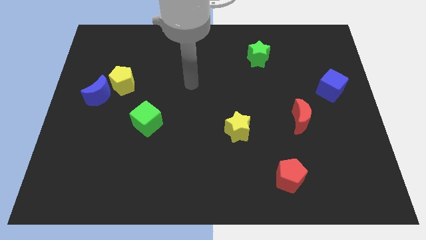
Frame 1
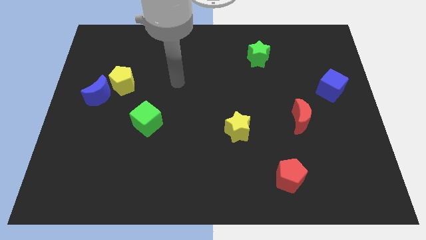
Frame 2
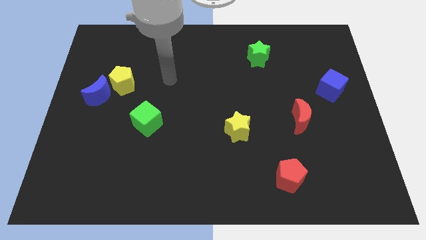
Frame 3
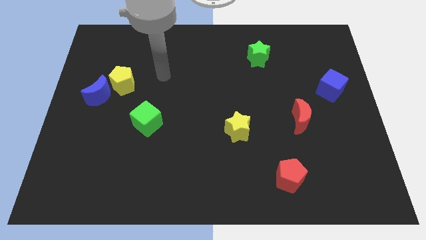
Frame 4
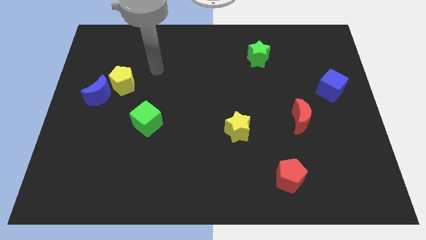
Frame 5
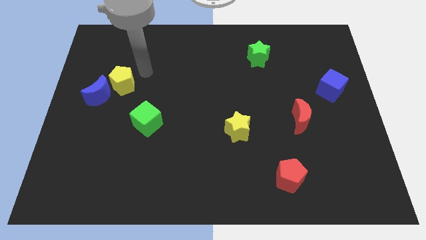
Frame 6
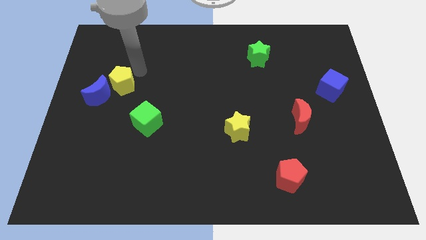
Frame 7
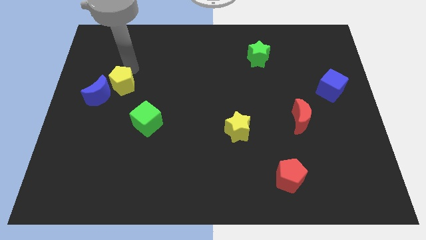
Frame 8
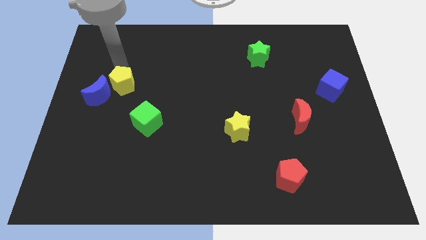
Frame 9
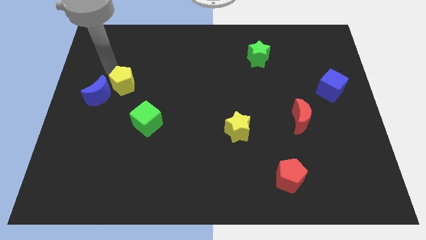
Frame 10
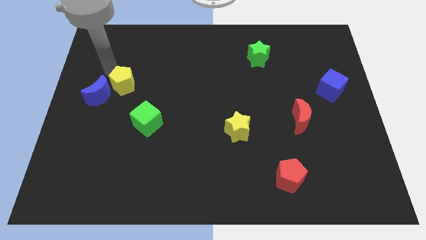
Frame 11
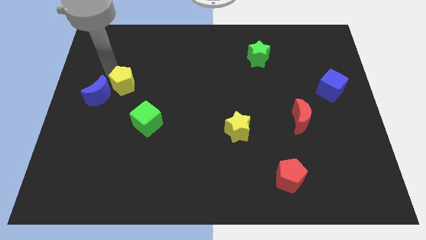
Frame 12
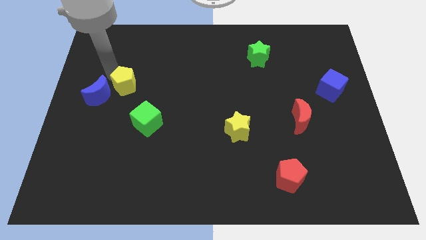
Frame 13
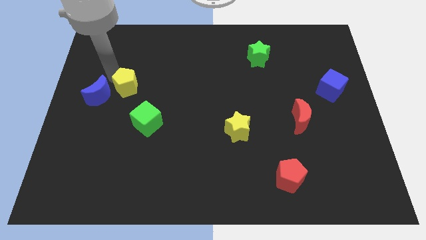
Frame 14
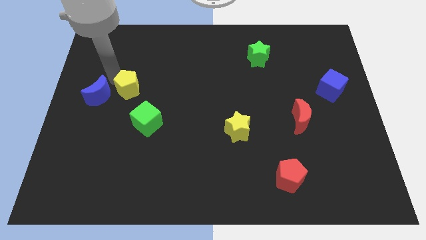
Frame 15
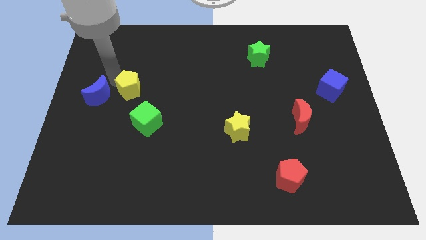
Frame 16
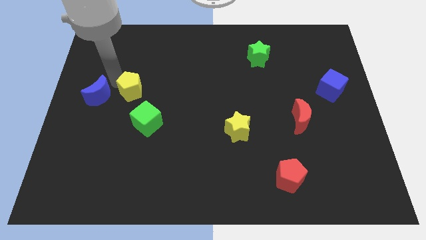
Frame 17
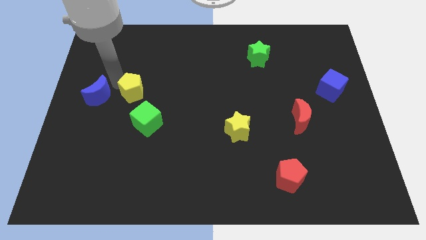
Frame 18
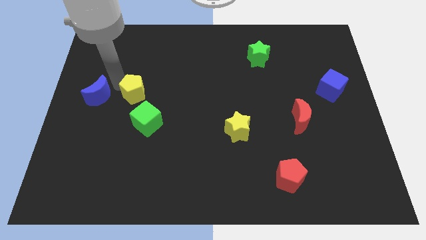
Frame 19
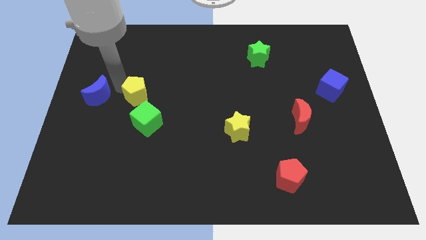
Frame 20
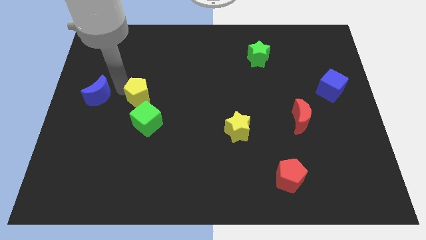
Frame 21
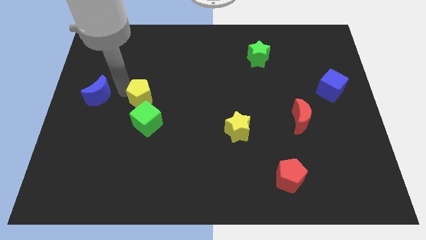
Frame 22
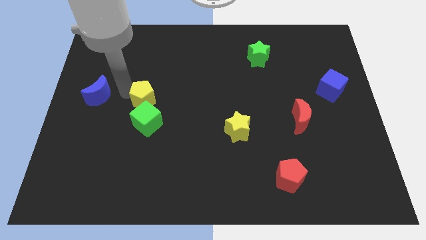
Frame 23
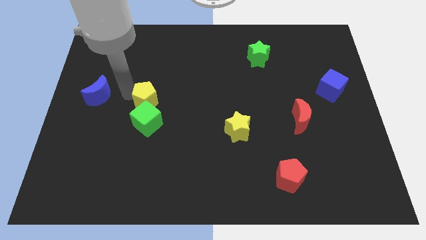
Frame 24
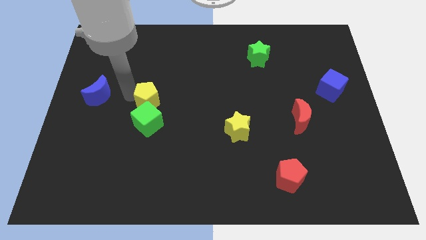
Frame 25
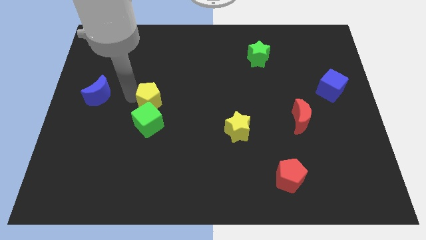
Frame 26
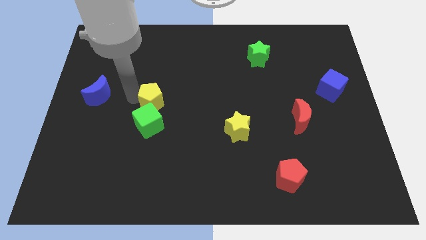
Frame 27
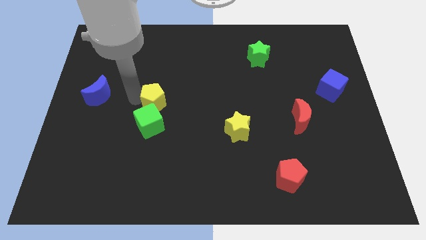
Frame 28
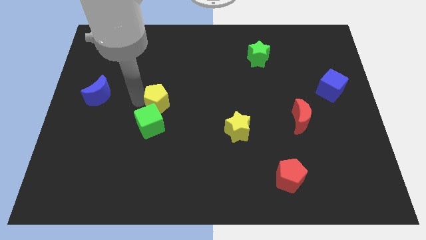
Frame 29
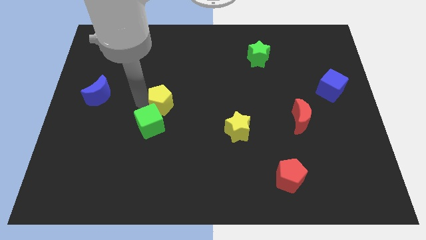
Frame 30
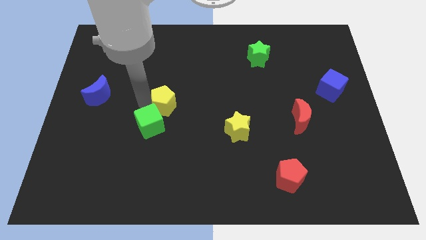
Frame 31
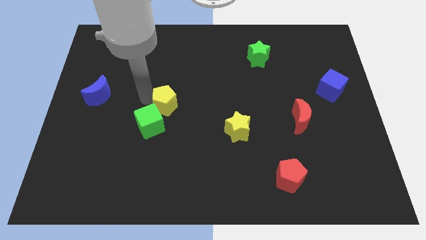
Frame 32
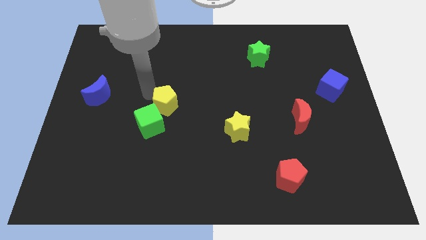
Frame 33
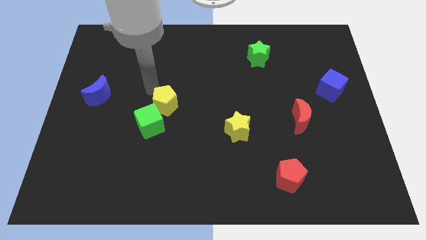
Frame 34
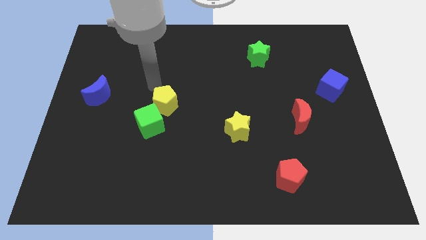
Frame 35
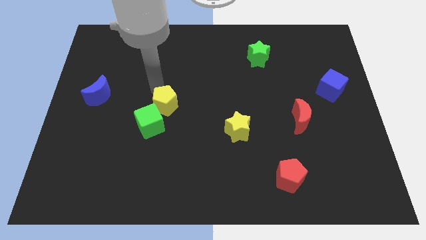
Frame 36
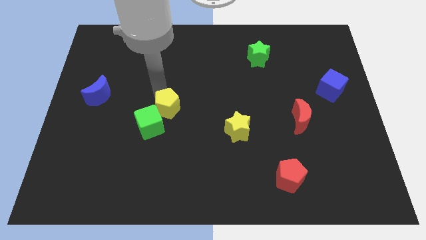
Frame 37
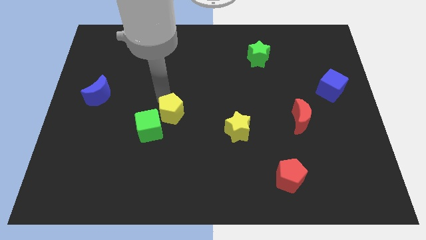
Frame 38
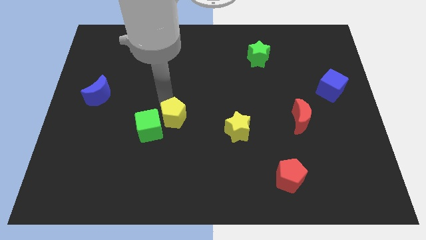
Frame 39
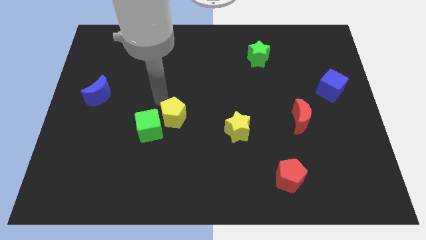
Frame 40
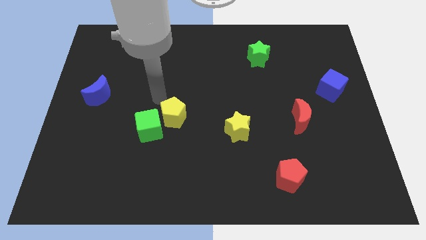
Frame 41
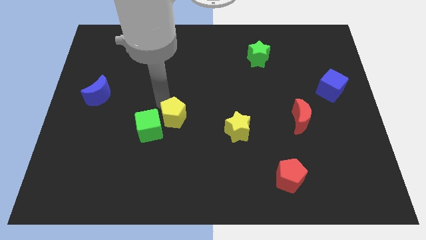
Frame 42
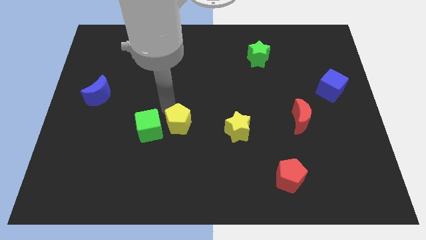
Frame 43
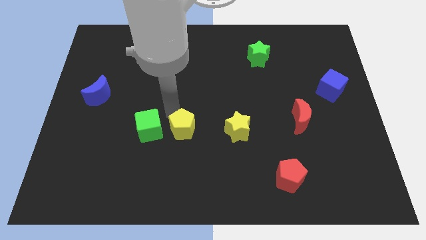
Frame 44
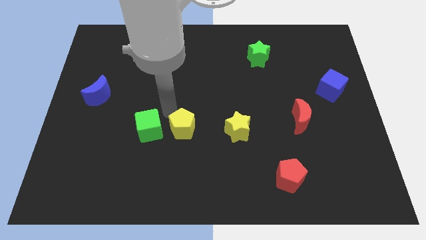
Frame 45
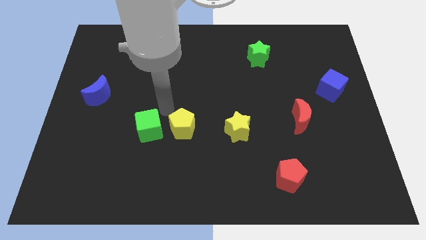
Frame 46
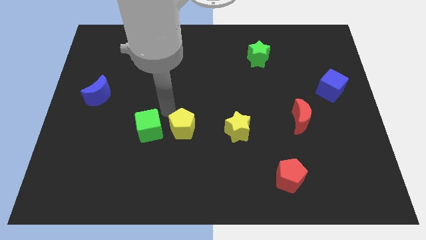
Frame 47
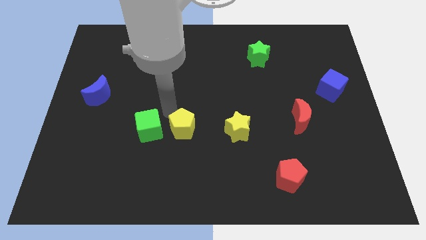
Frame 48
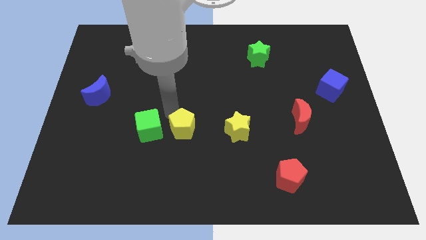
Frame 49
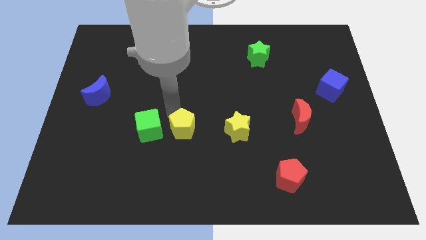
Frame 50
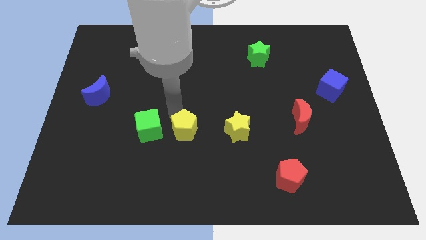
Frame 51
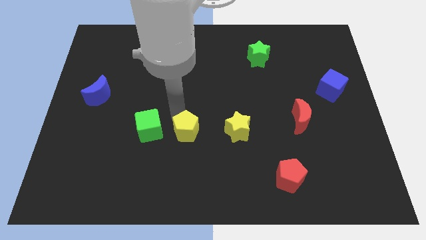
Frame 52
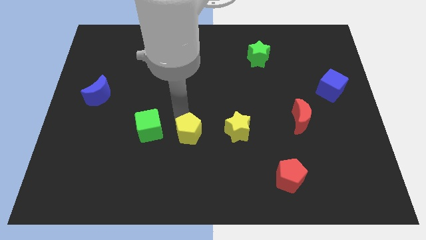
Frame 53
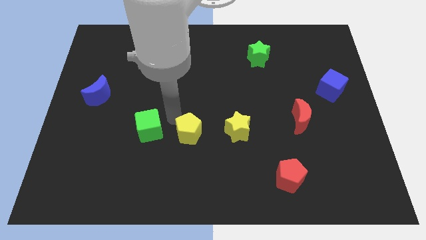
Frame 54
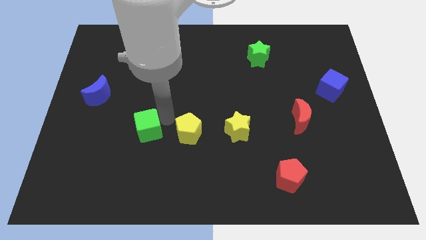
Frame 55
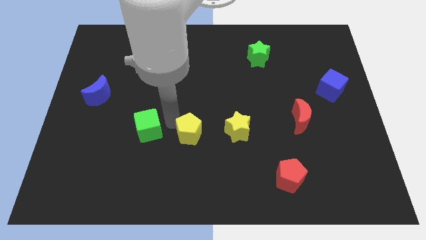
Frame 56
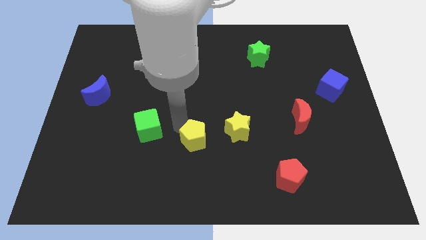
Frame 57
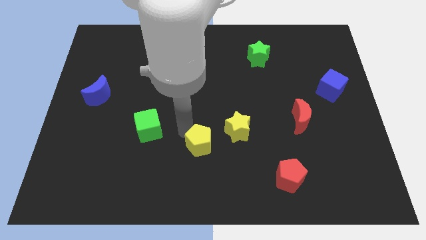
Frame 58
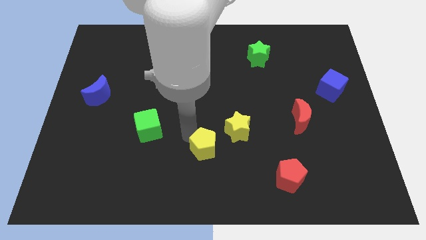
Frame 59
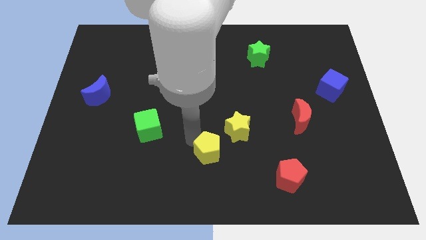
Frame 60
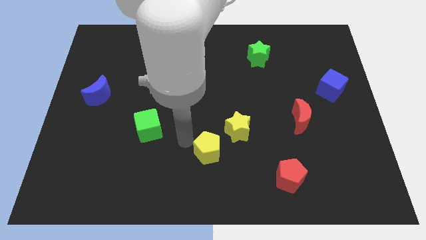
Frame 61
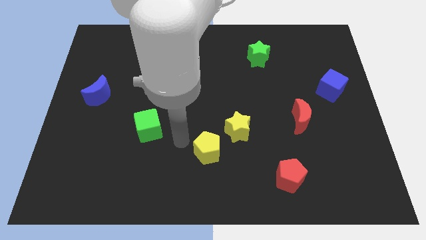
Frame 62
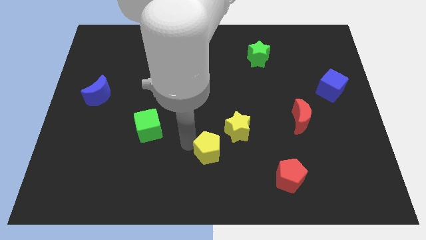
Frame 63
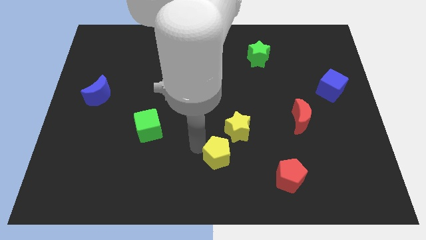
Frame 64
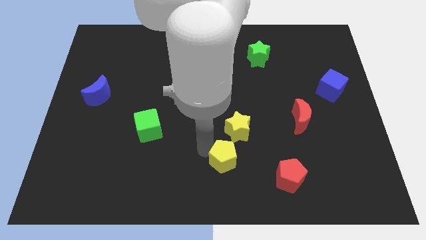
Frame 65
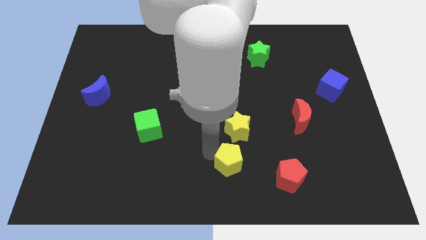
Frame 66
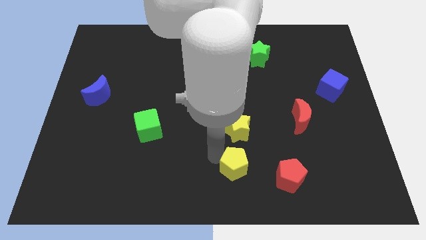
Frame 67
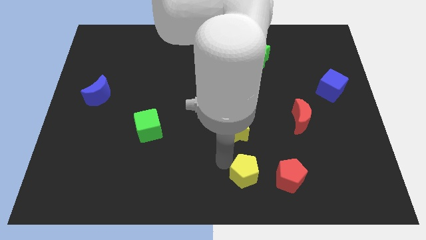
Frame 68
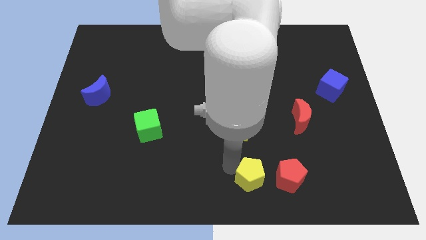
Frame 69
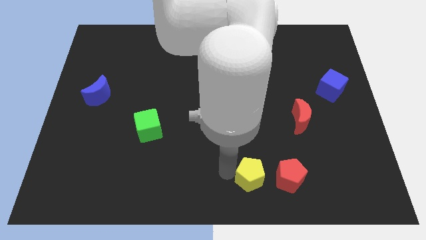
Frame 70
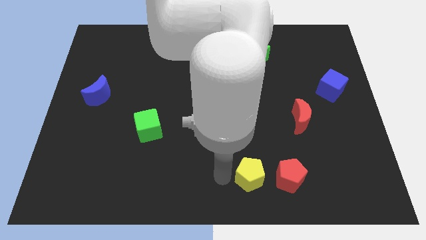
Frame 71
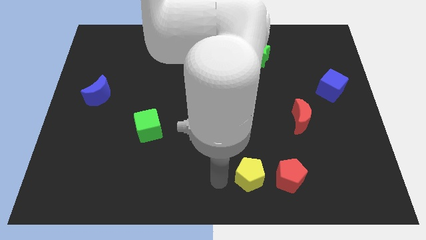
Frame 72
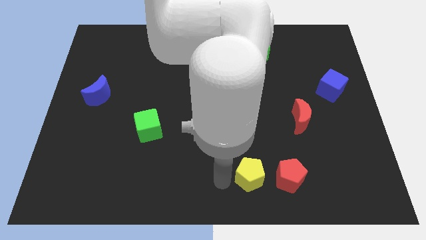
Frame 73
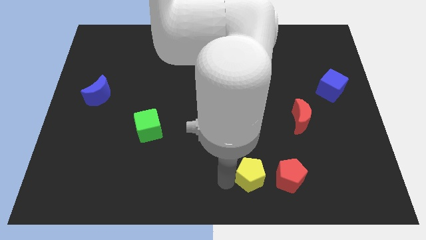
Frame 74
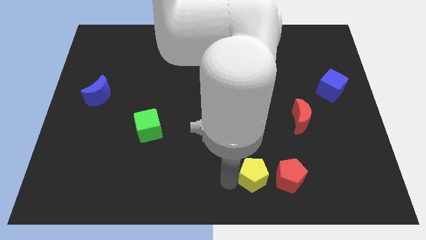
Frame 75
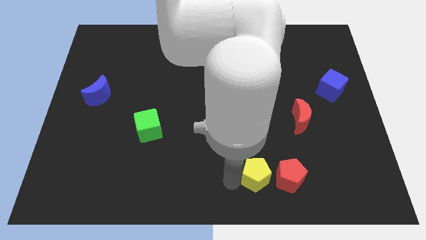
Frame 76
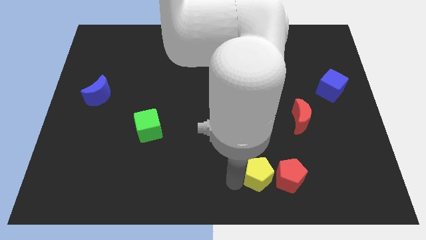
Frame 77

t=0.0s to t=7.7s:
put the yellow pentagon next to the red pentagon
